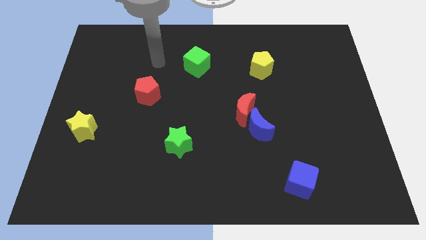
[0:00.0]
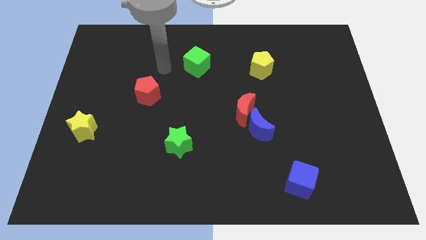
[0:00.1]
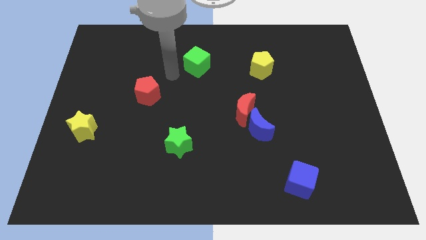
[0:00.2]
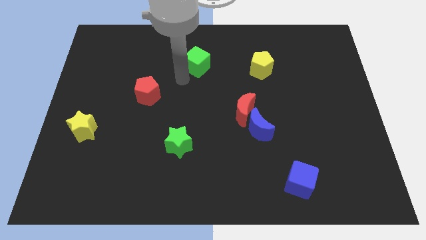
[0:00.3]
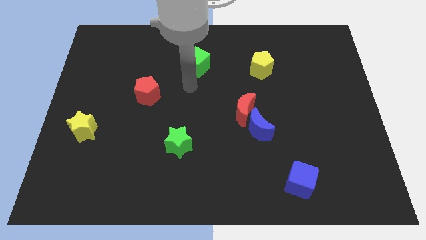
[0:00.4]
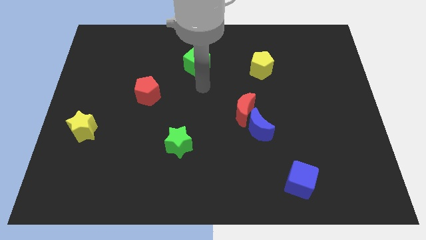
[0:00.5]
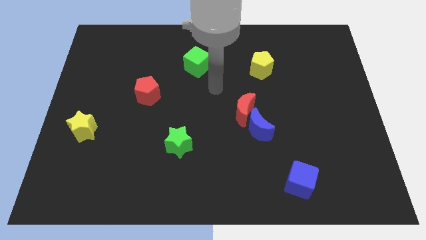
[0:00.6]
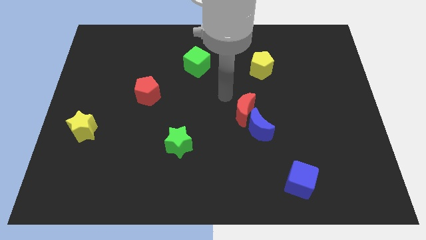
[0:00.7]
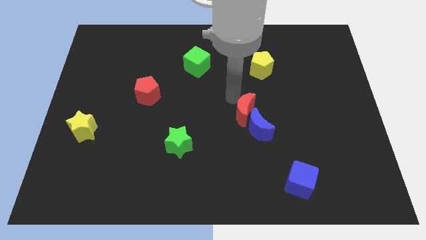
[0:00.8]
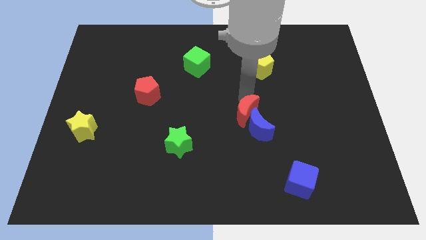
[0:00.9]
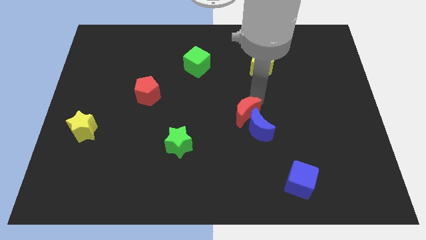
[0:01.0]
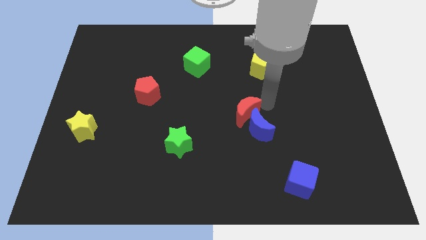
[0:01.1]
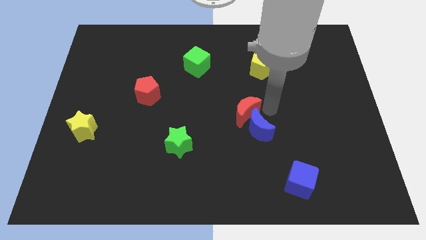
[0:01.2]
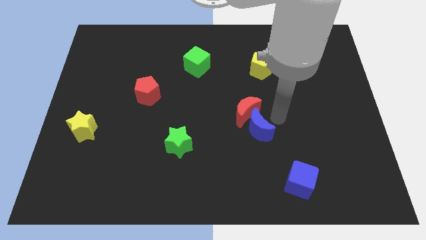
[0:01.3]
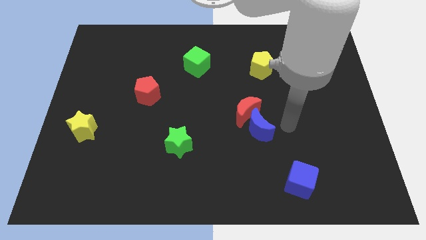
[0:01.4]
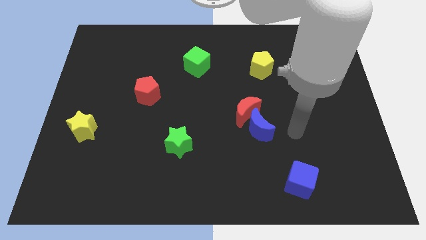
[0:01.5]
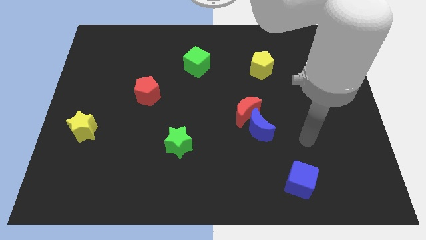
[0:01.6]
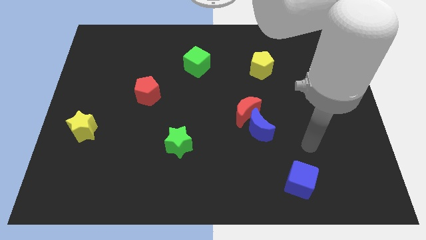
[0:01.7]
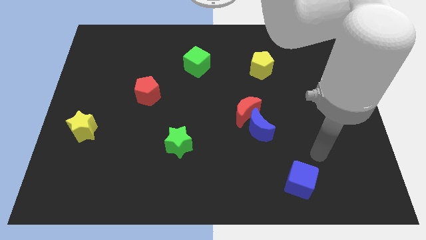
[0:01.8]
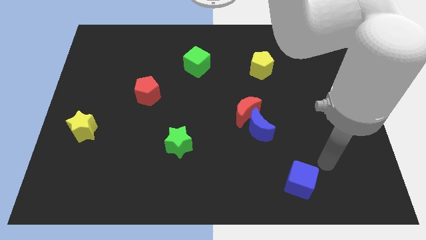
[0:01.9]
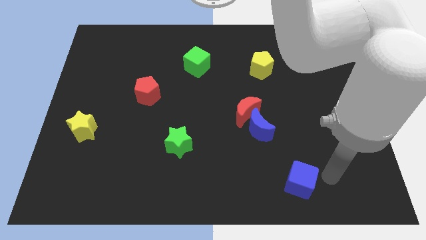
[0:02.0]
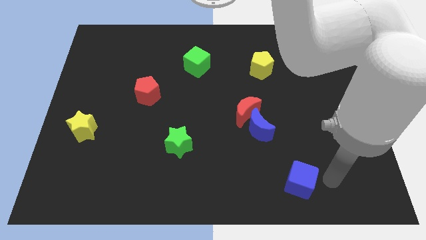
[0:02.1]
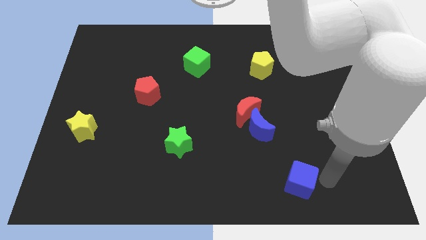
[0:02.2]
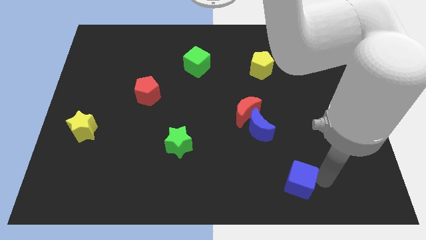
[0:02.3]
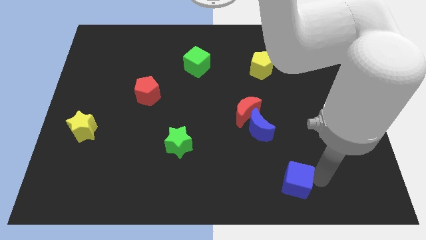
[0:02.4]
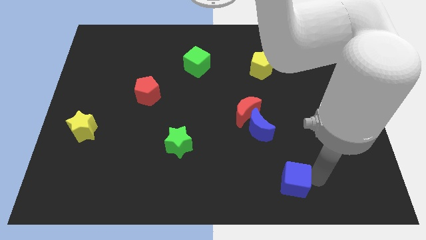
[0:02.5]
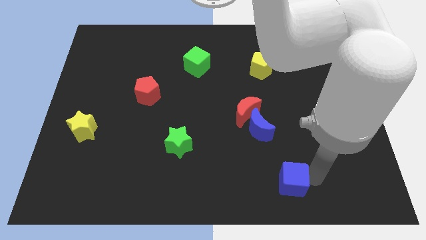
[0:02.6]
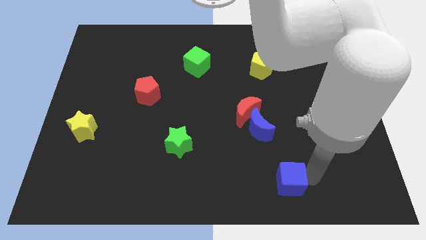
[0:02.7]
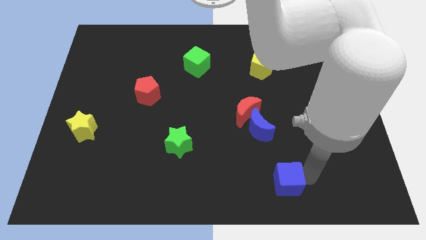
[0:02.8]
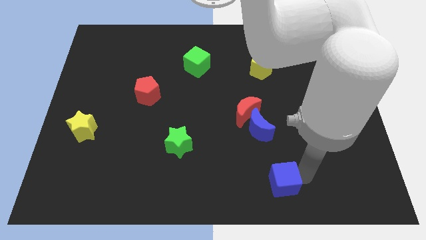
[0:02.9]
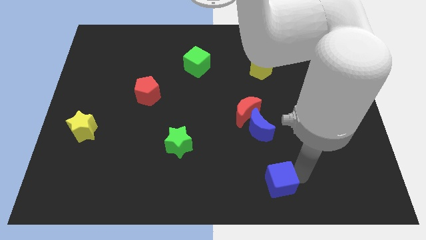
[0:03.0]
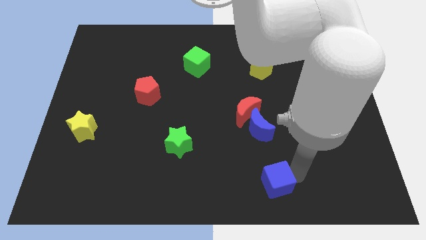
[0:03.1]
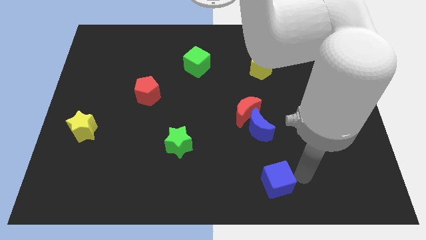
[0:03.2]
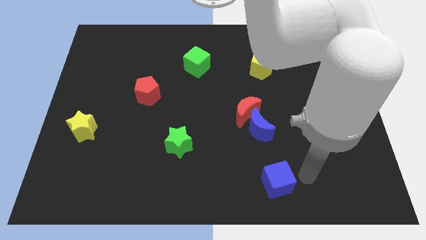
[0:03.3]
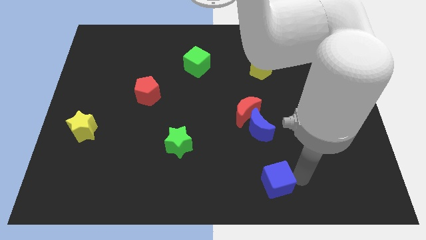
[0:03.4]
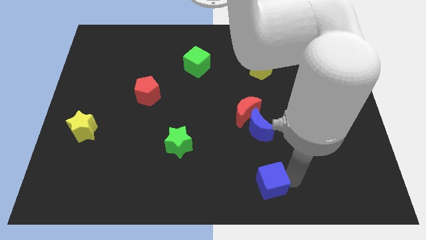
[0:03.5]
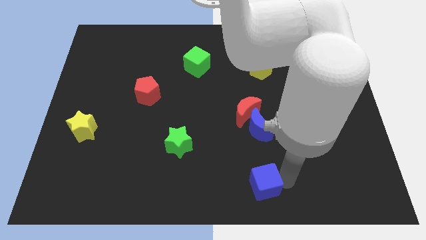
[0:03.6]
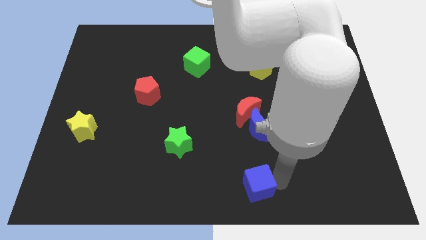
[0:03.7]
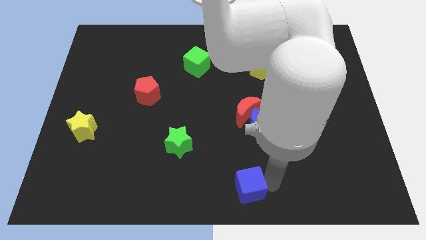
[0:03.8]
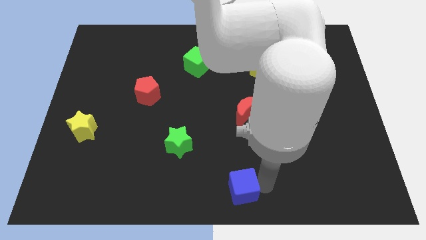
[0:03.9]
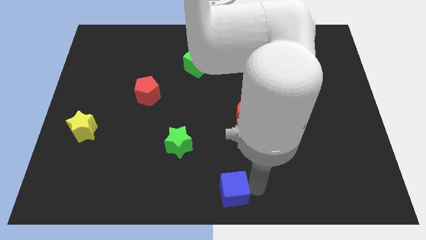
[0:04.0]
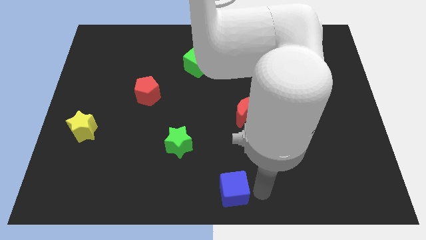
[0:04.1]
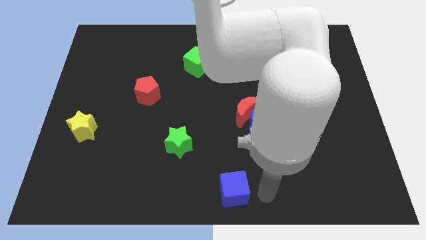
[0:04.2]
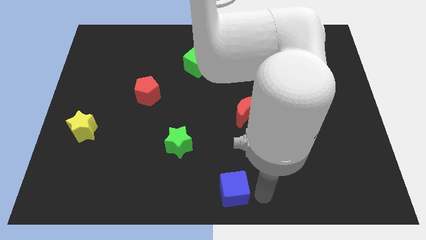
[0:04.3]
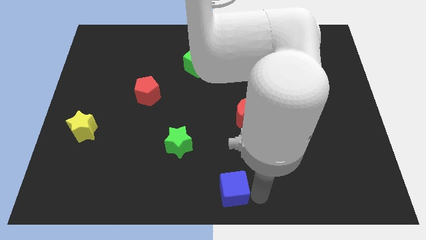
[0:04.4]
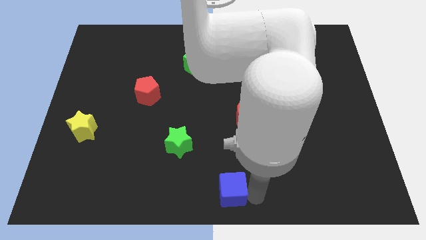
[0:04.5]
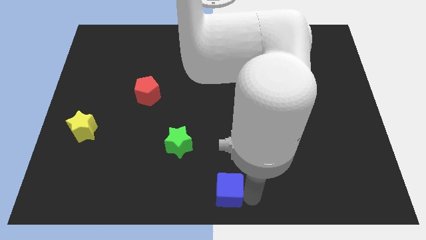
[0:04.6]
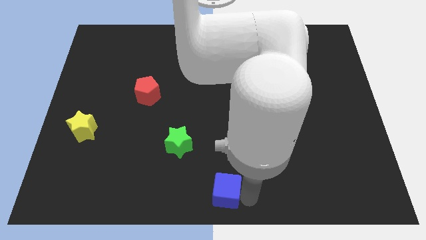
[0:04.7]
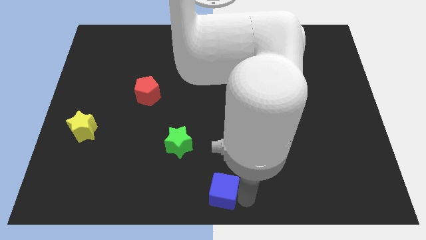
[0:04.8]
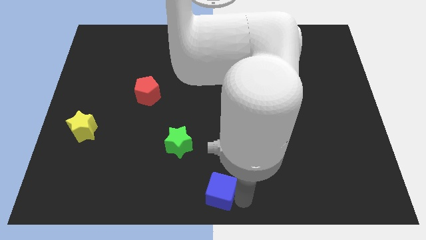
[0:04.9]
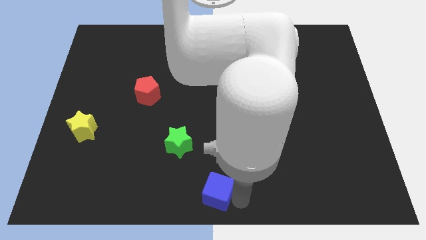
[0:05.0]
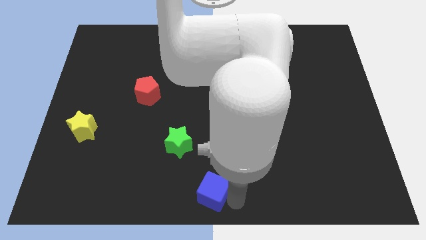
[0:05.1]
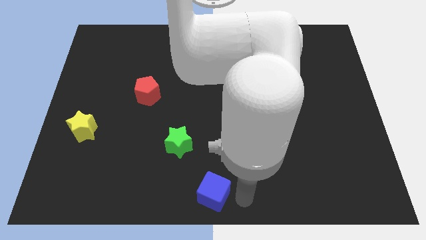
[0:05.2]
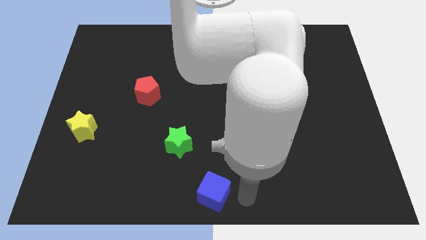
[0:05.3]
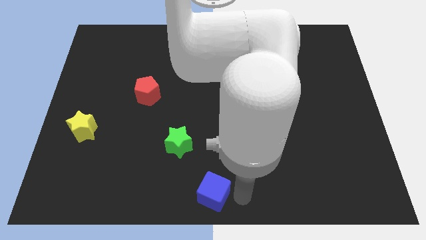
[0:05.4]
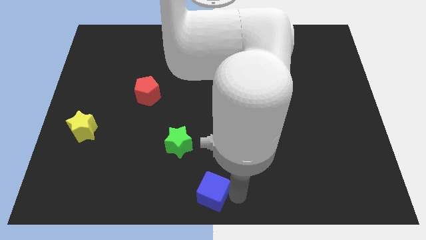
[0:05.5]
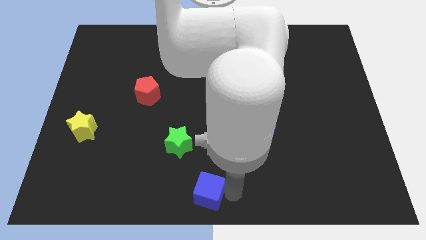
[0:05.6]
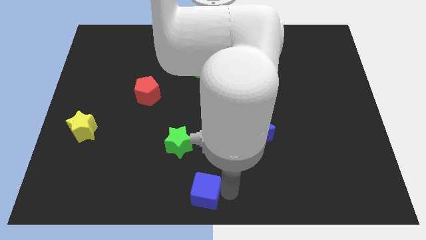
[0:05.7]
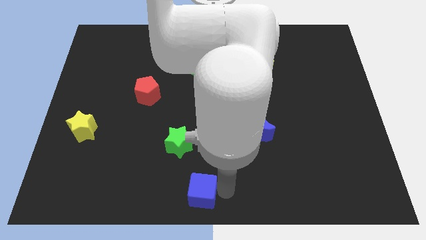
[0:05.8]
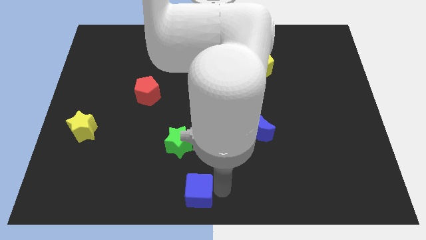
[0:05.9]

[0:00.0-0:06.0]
move the blue cube to the left

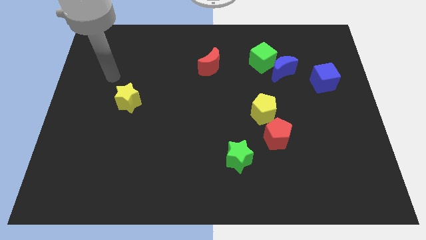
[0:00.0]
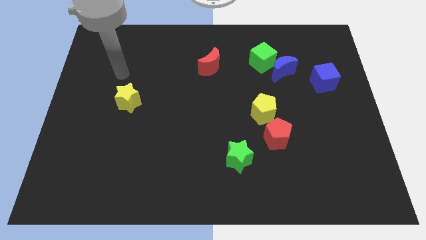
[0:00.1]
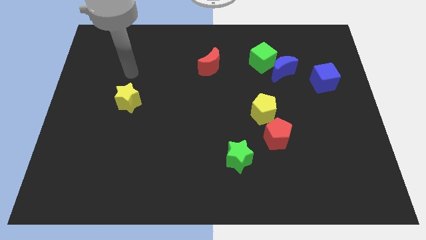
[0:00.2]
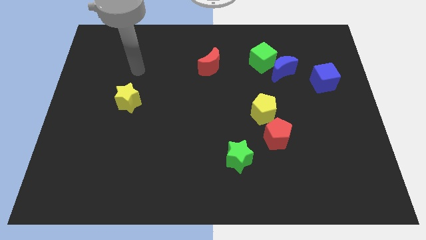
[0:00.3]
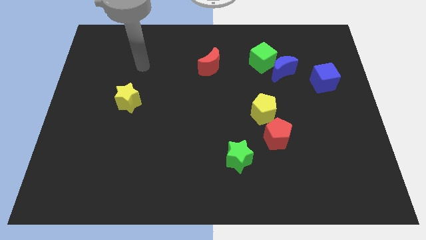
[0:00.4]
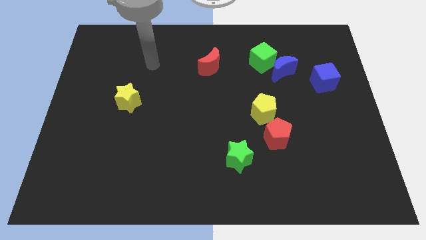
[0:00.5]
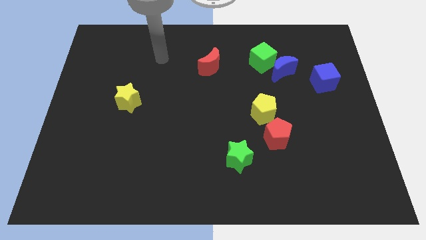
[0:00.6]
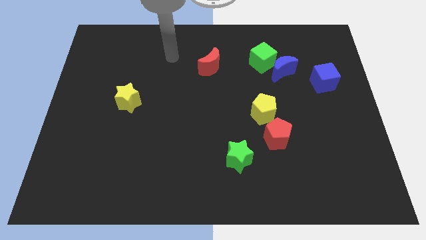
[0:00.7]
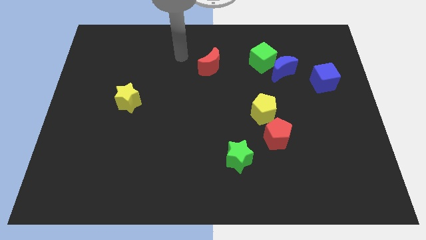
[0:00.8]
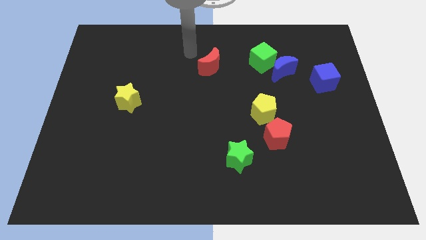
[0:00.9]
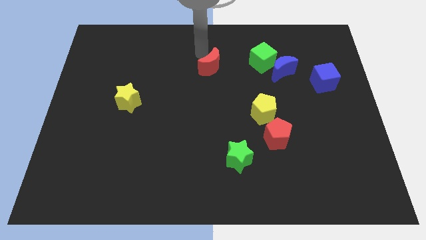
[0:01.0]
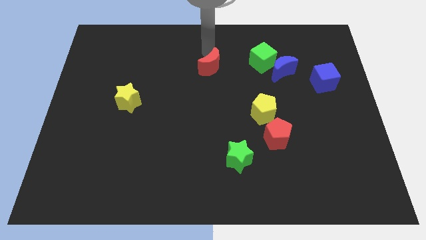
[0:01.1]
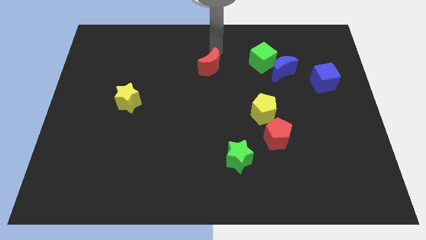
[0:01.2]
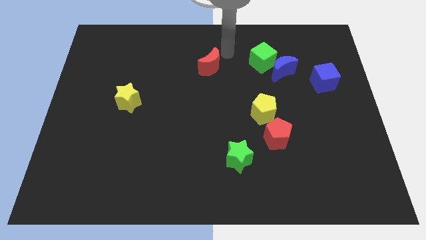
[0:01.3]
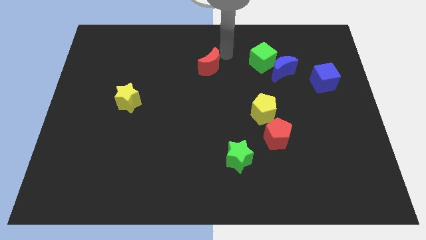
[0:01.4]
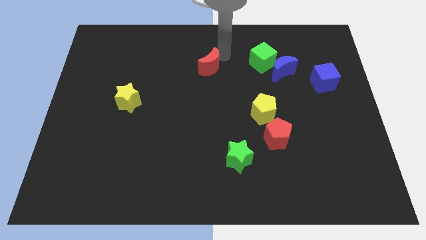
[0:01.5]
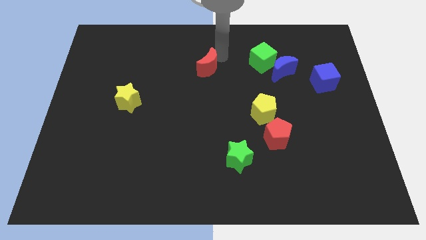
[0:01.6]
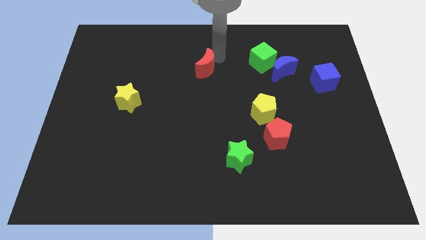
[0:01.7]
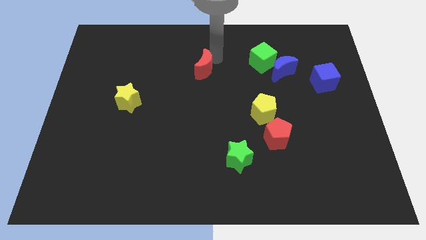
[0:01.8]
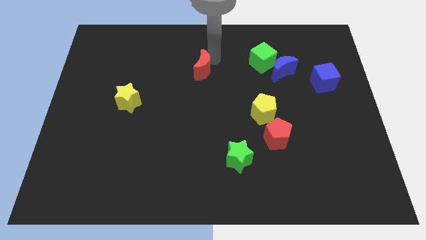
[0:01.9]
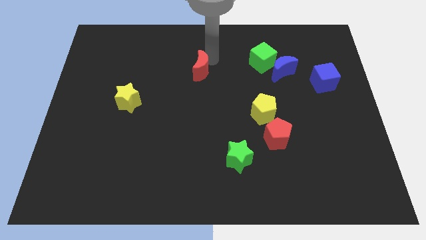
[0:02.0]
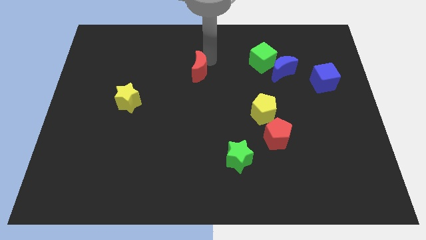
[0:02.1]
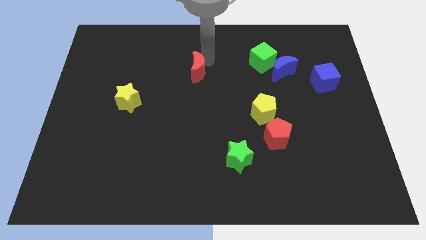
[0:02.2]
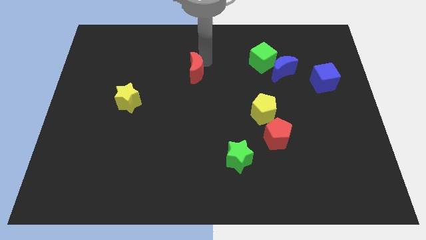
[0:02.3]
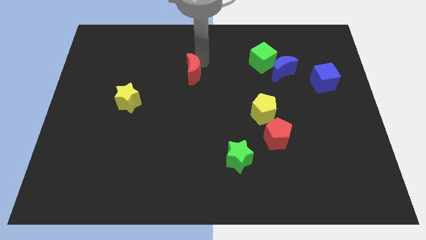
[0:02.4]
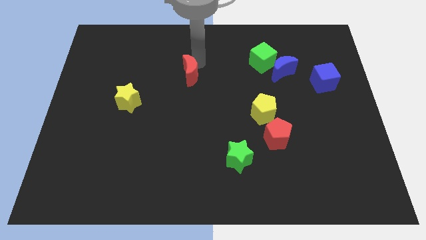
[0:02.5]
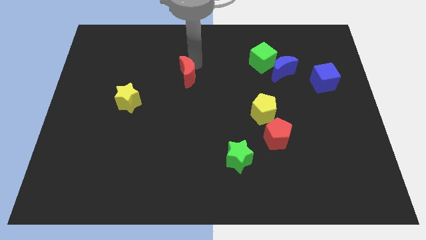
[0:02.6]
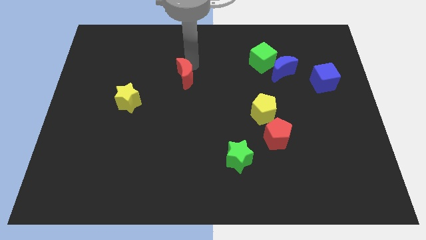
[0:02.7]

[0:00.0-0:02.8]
push the red moon downwards and to the left diagonally a little bit
